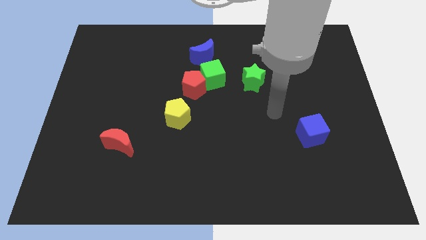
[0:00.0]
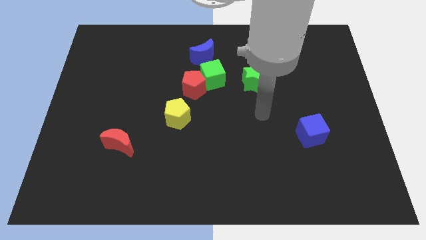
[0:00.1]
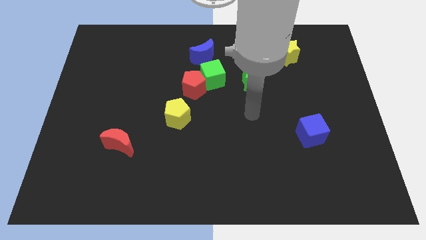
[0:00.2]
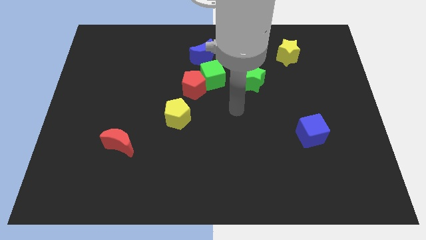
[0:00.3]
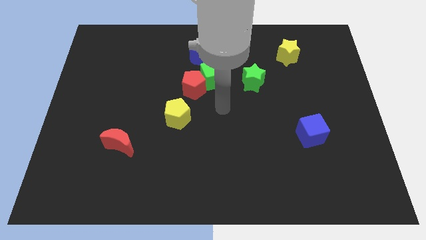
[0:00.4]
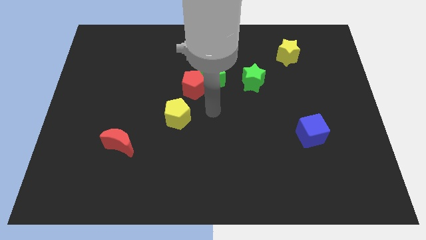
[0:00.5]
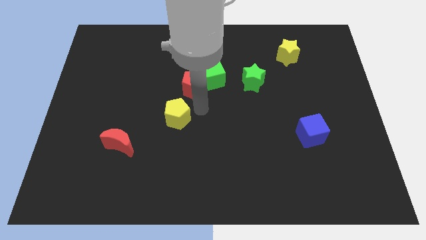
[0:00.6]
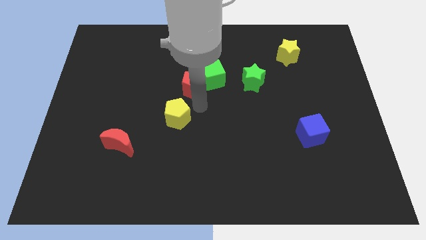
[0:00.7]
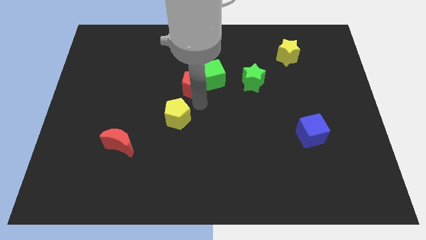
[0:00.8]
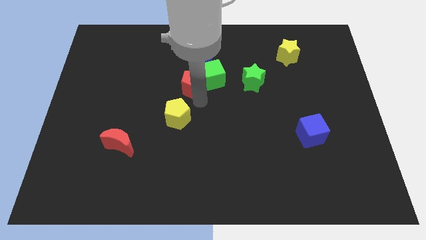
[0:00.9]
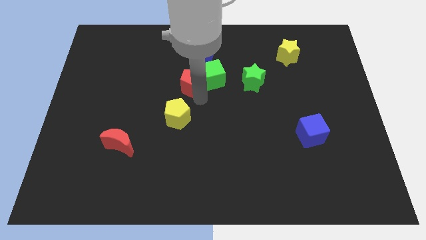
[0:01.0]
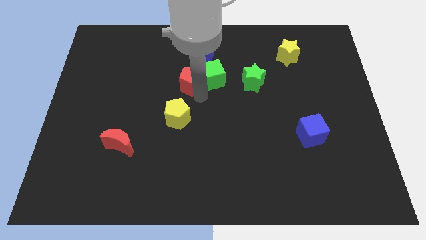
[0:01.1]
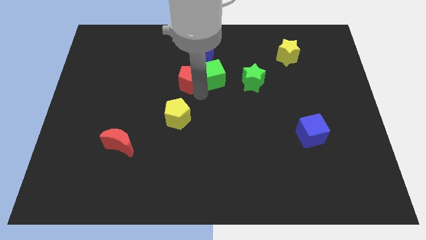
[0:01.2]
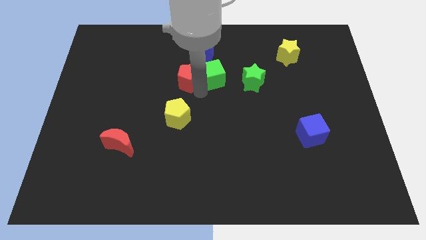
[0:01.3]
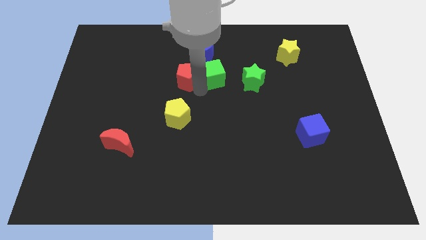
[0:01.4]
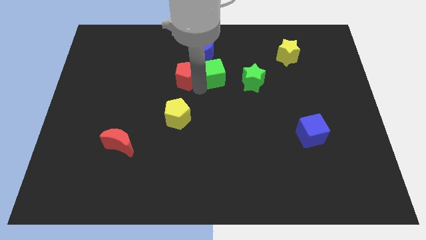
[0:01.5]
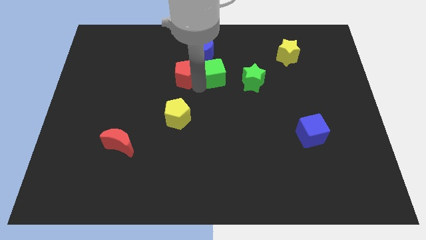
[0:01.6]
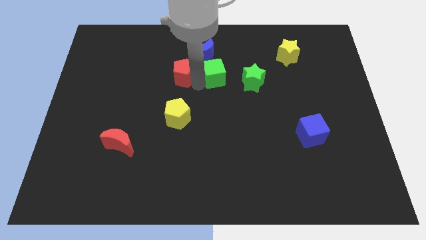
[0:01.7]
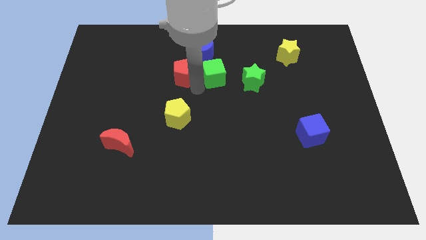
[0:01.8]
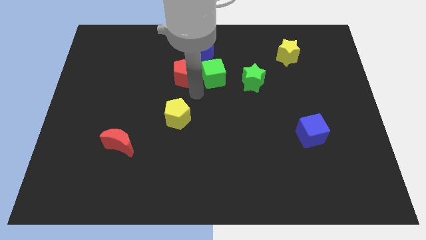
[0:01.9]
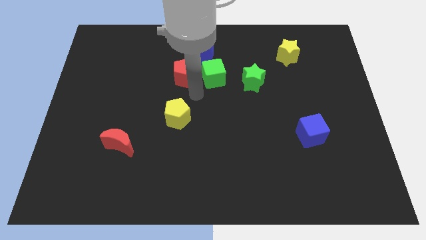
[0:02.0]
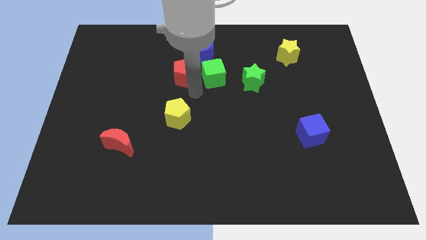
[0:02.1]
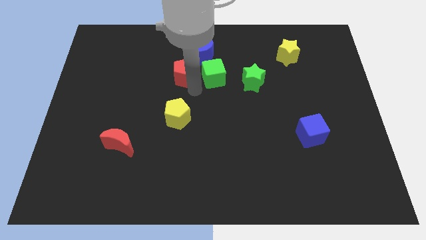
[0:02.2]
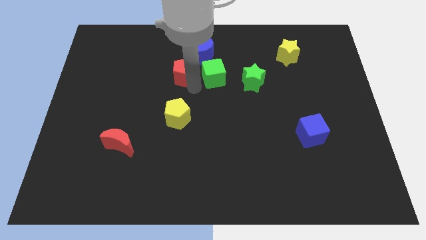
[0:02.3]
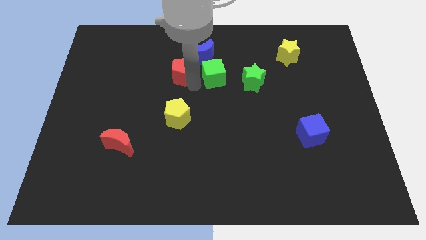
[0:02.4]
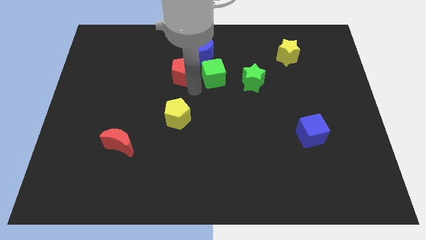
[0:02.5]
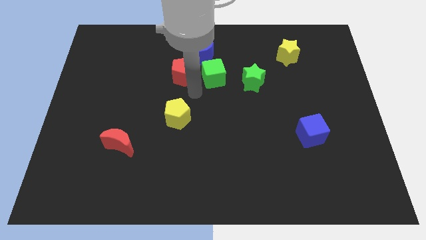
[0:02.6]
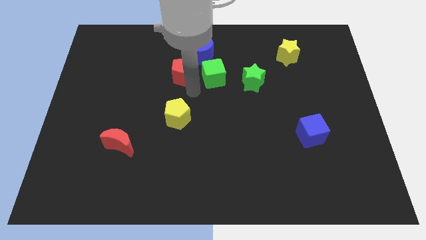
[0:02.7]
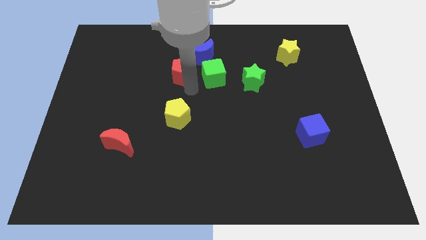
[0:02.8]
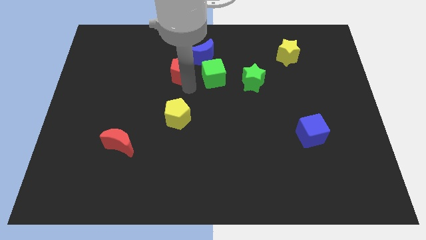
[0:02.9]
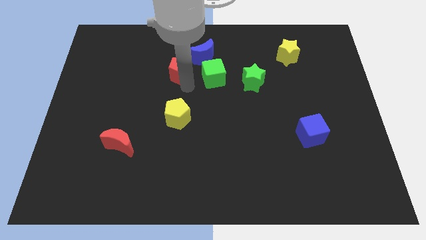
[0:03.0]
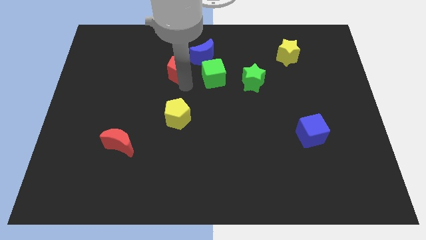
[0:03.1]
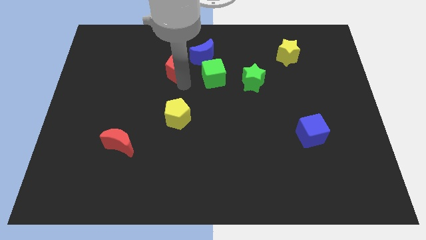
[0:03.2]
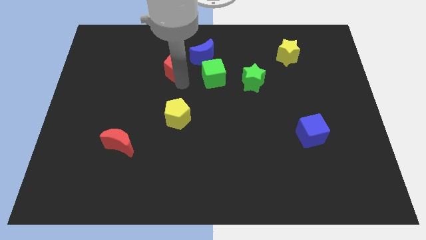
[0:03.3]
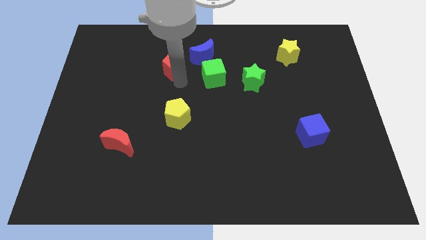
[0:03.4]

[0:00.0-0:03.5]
pull the red pentagon apart from the green cube and yellow pentagon

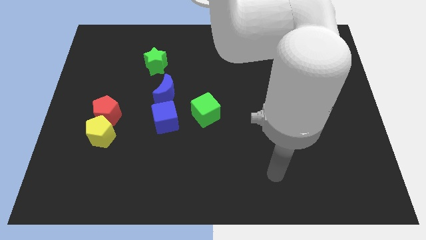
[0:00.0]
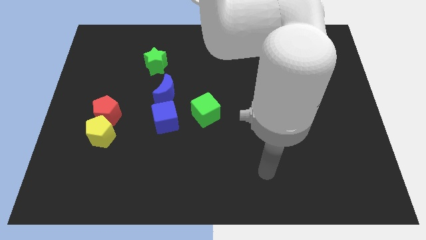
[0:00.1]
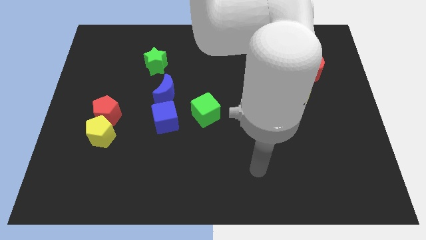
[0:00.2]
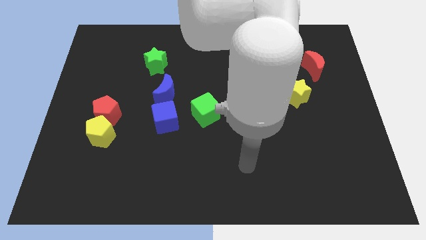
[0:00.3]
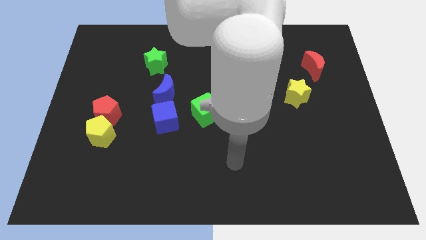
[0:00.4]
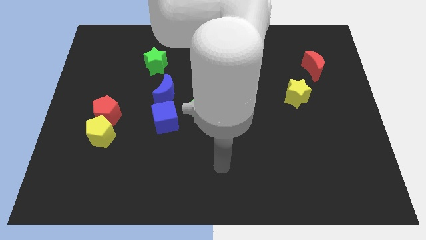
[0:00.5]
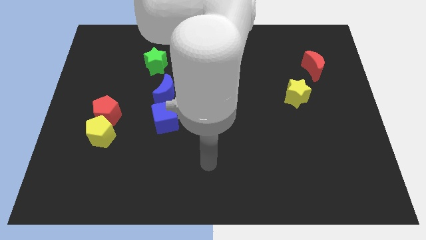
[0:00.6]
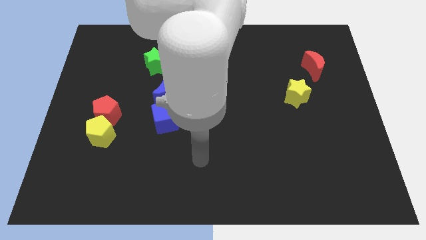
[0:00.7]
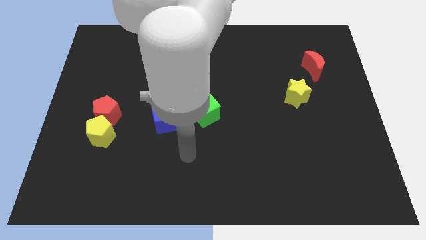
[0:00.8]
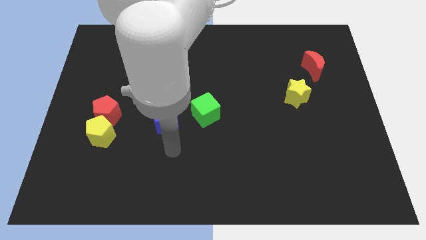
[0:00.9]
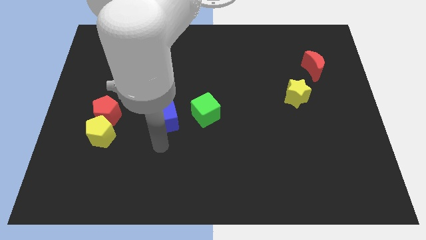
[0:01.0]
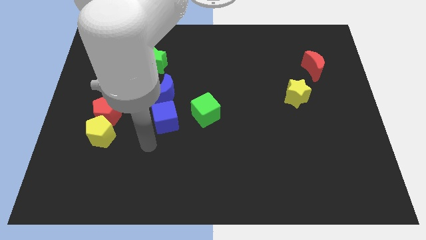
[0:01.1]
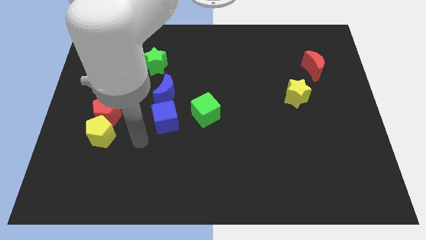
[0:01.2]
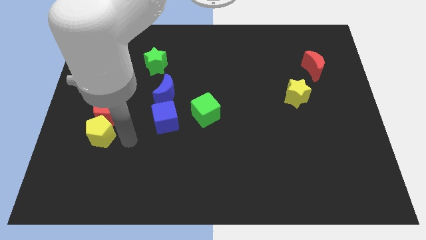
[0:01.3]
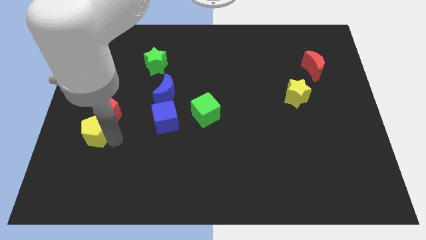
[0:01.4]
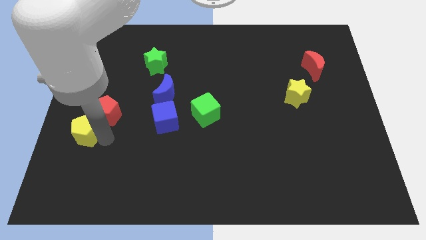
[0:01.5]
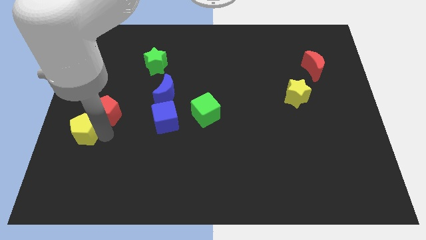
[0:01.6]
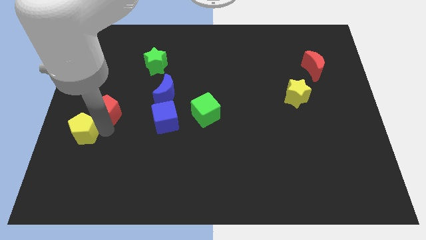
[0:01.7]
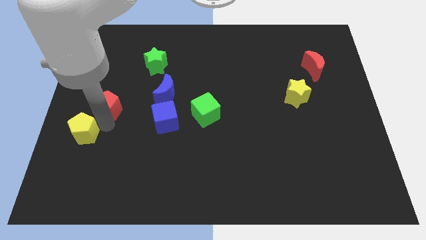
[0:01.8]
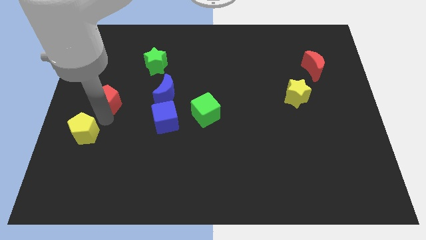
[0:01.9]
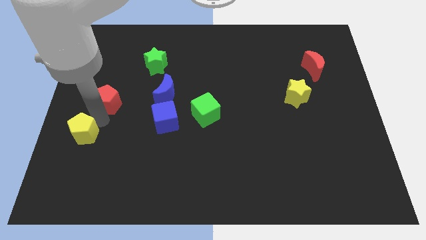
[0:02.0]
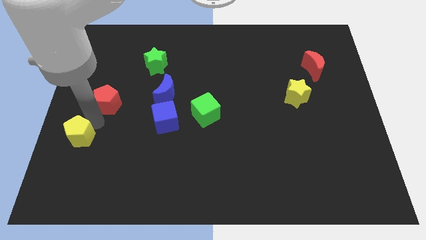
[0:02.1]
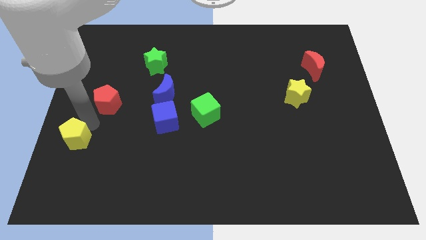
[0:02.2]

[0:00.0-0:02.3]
move the red pentagon away from the yellow pentagon

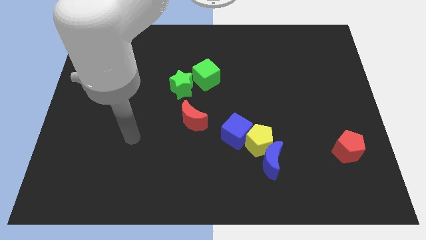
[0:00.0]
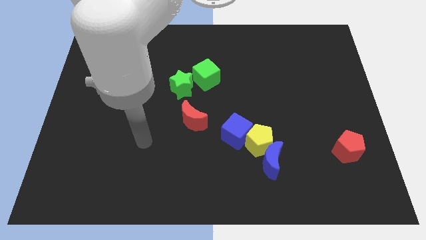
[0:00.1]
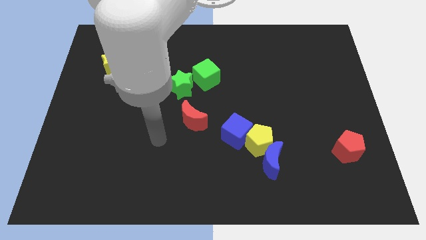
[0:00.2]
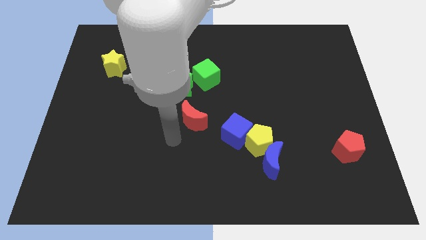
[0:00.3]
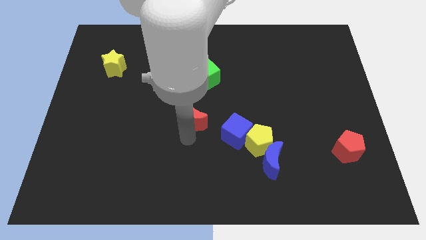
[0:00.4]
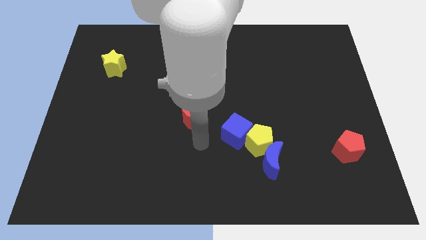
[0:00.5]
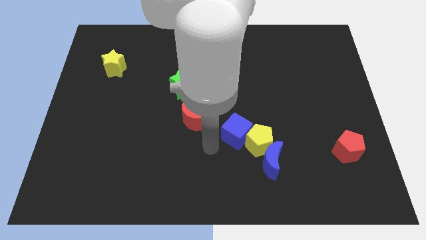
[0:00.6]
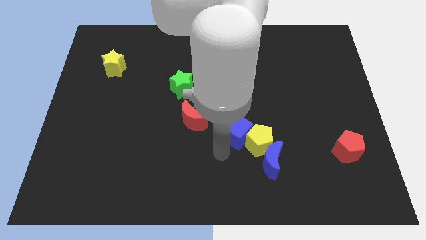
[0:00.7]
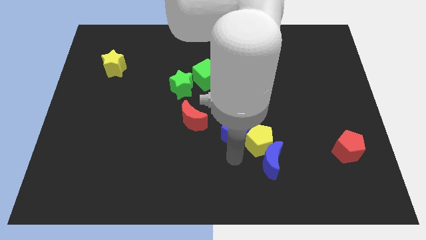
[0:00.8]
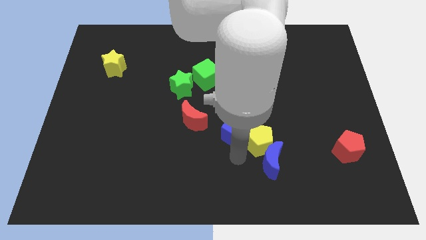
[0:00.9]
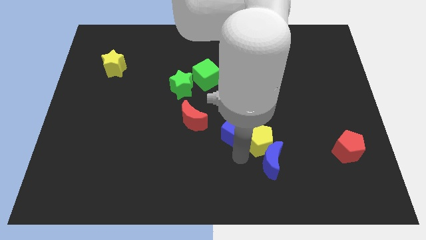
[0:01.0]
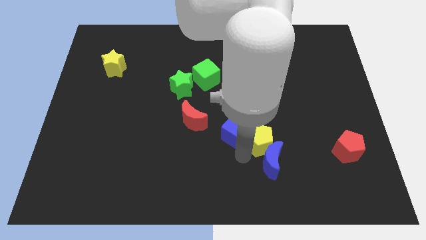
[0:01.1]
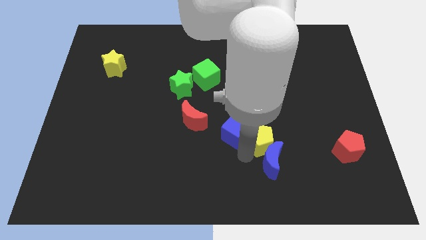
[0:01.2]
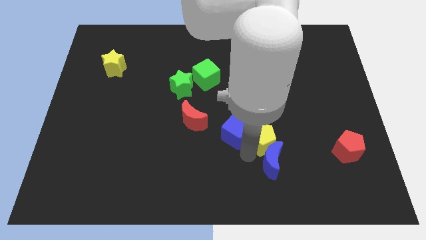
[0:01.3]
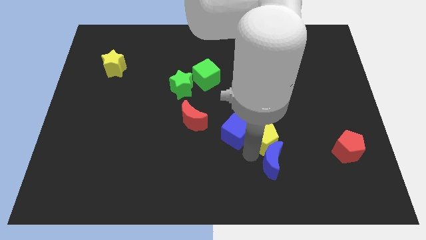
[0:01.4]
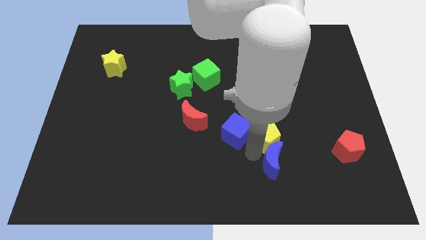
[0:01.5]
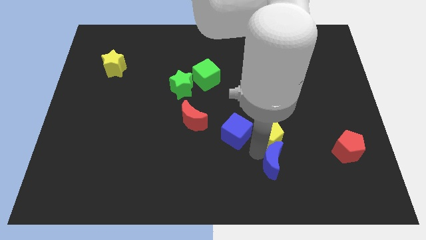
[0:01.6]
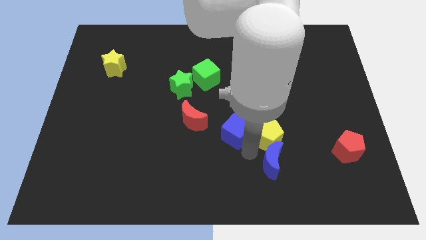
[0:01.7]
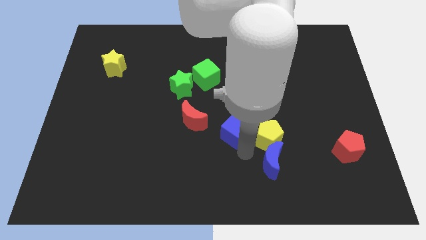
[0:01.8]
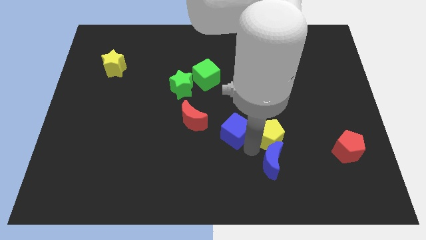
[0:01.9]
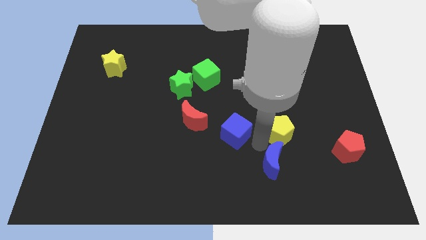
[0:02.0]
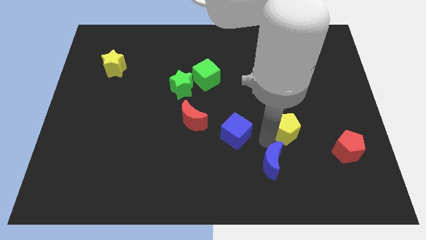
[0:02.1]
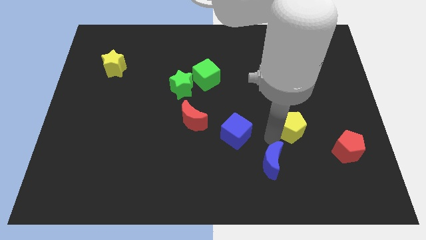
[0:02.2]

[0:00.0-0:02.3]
pull the yellow pentagon apart from the blue moon and blue cube

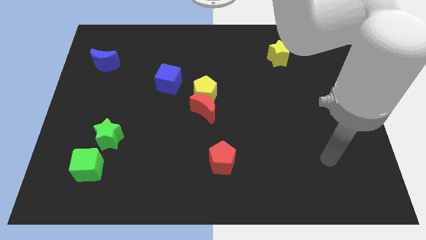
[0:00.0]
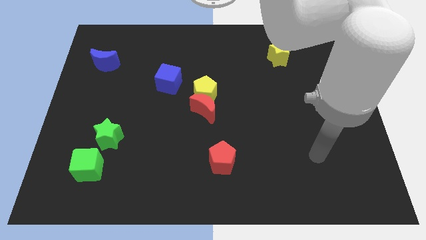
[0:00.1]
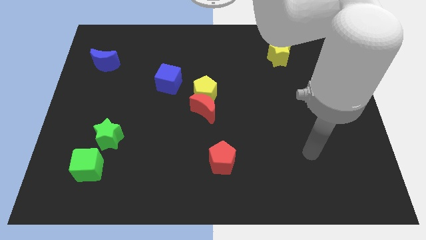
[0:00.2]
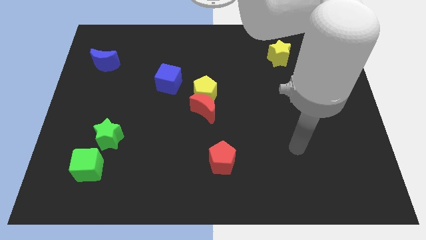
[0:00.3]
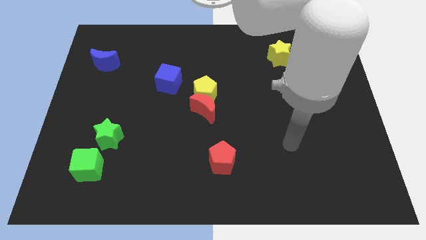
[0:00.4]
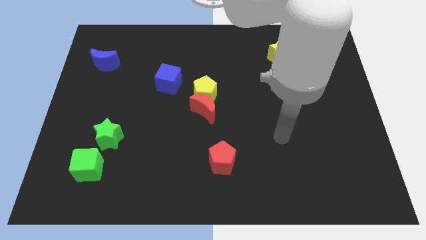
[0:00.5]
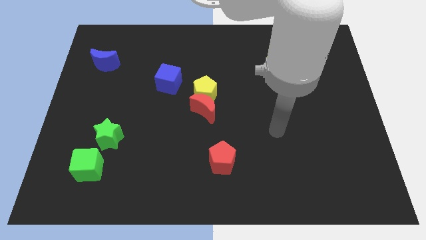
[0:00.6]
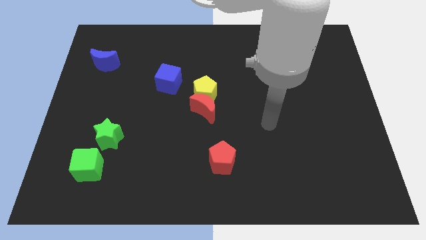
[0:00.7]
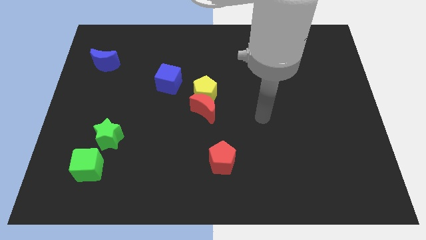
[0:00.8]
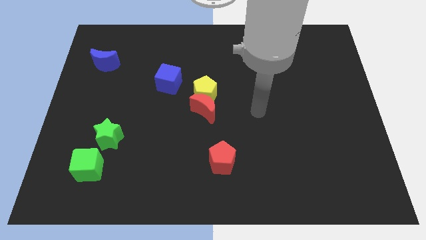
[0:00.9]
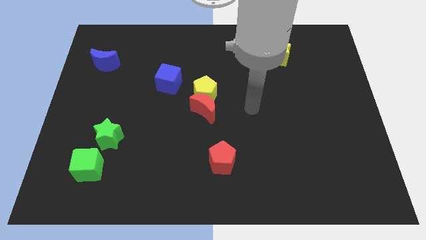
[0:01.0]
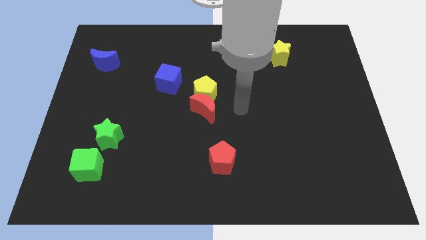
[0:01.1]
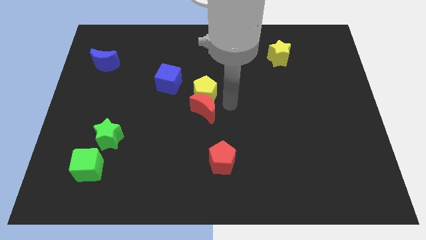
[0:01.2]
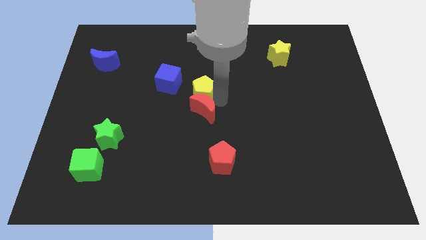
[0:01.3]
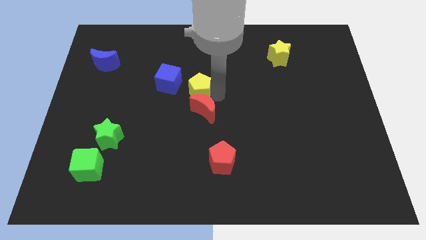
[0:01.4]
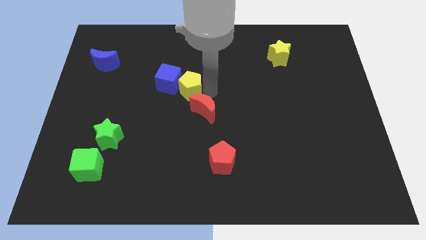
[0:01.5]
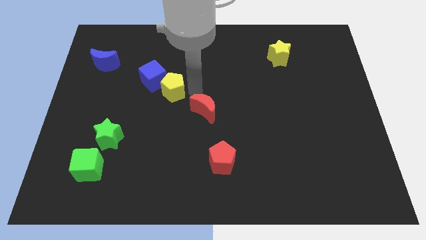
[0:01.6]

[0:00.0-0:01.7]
pull the red moon apart from the yellow pentagon
